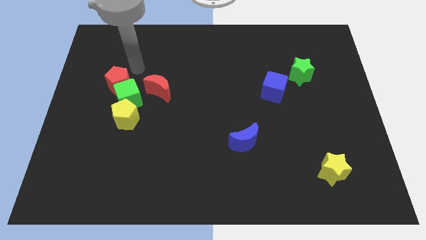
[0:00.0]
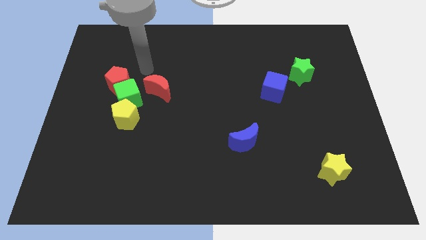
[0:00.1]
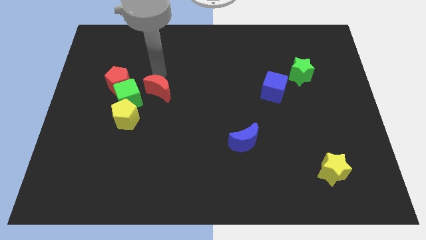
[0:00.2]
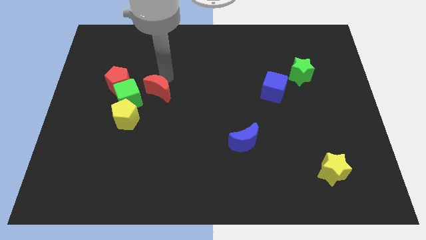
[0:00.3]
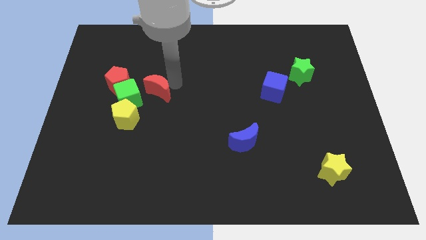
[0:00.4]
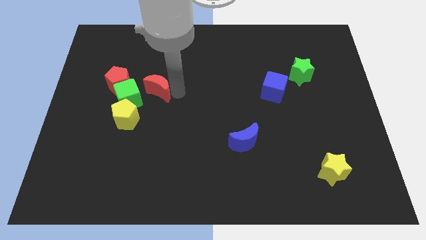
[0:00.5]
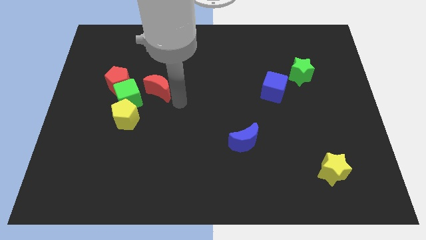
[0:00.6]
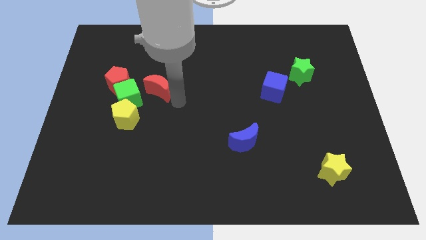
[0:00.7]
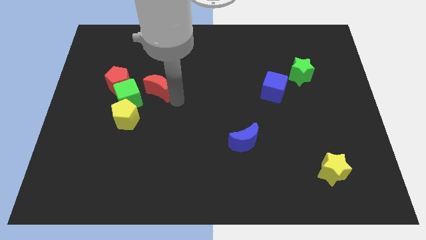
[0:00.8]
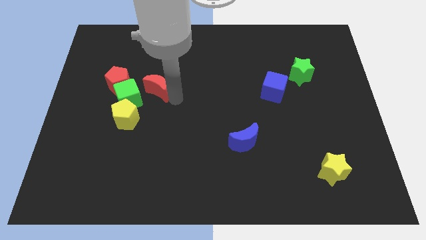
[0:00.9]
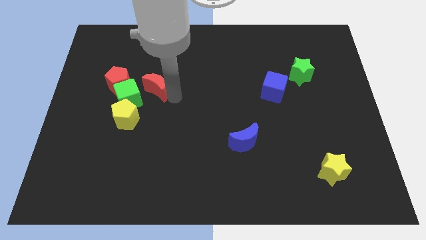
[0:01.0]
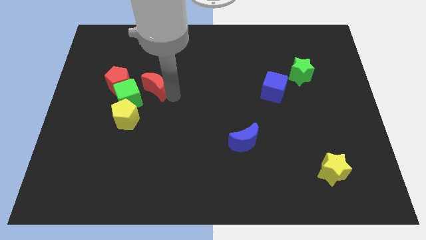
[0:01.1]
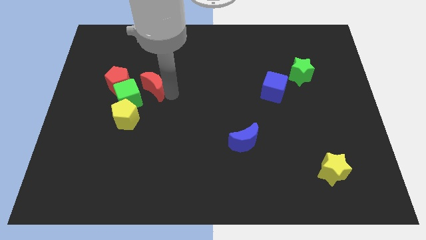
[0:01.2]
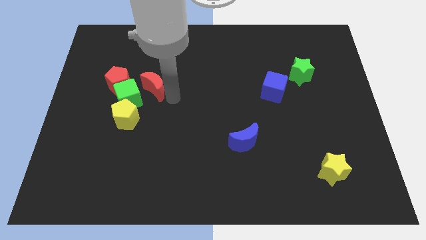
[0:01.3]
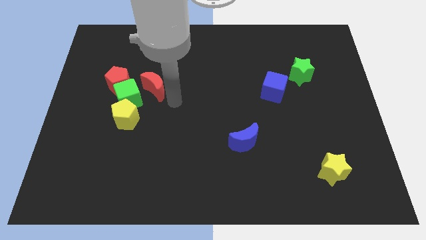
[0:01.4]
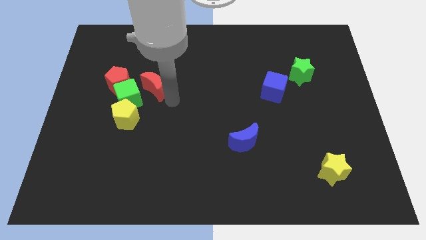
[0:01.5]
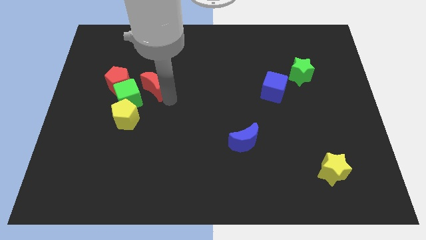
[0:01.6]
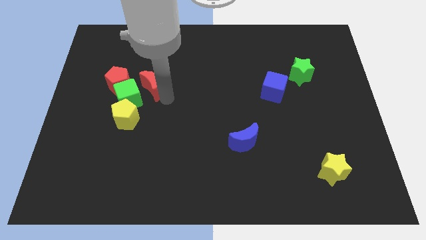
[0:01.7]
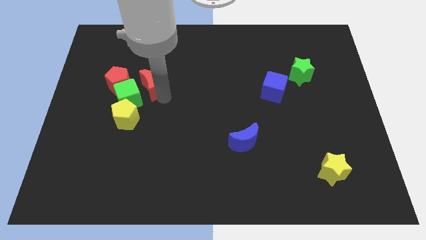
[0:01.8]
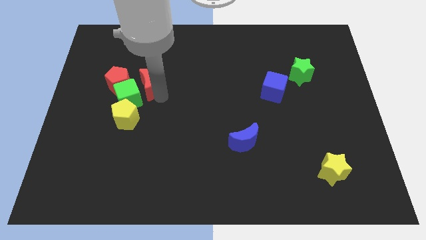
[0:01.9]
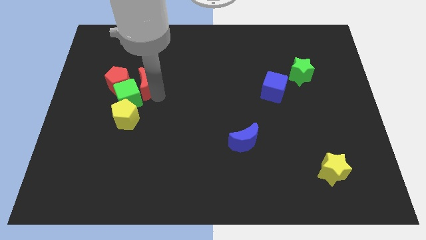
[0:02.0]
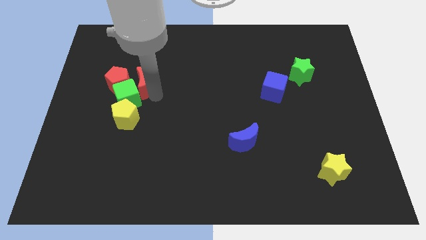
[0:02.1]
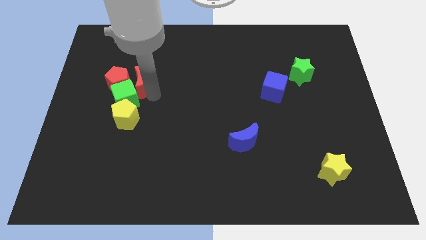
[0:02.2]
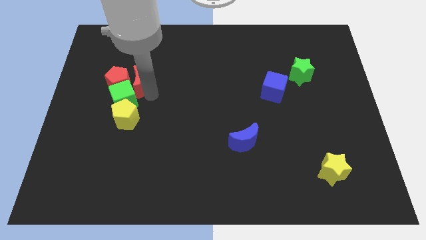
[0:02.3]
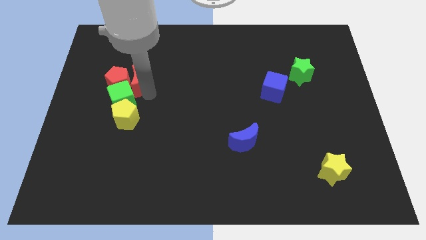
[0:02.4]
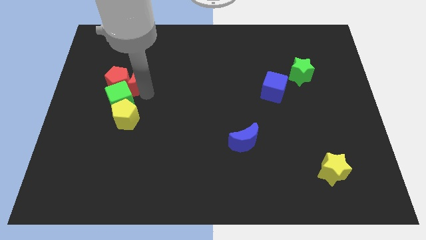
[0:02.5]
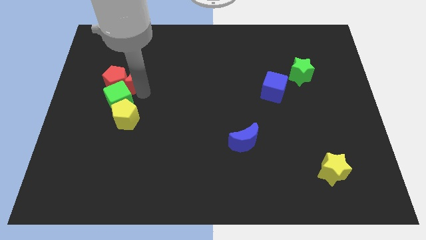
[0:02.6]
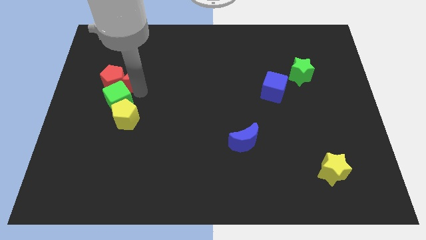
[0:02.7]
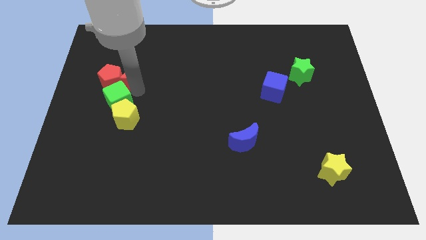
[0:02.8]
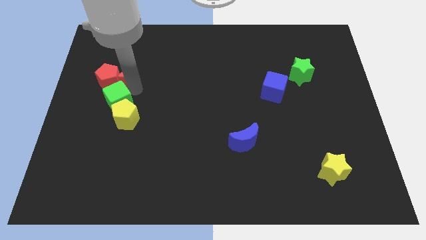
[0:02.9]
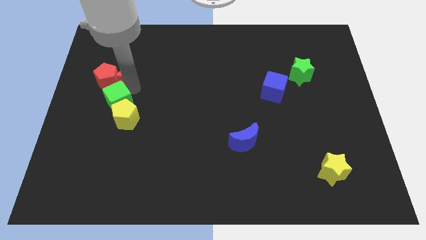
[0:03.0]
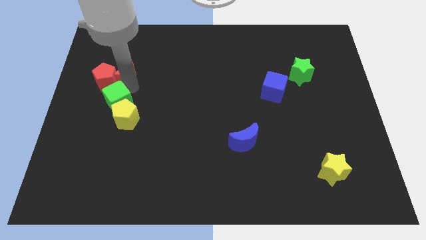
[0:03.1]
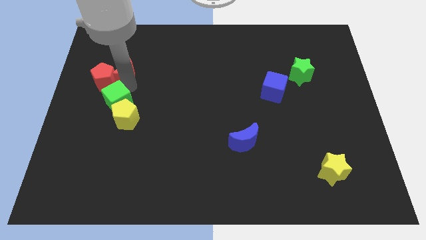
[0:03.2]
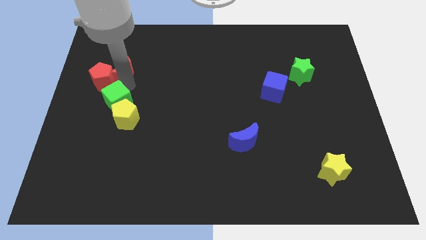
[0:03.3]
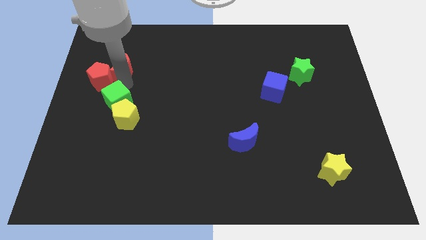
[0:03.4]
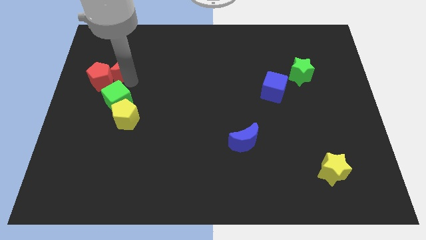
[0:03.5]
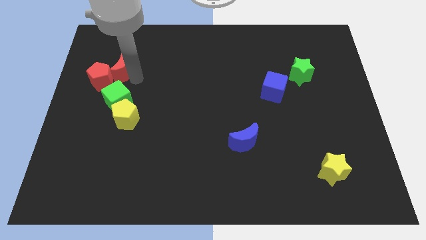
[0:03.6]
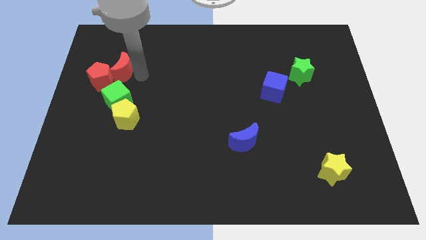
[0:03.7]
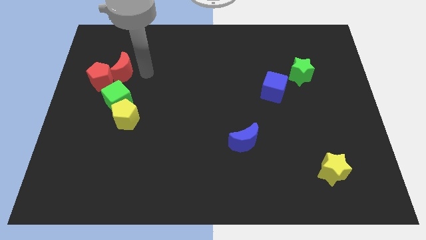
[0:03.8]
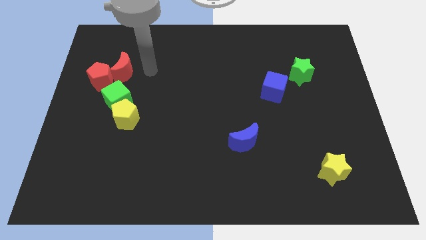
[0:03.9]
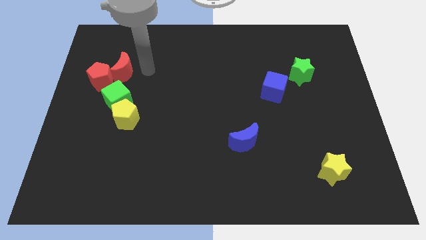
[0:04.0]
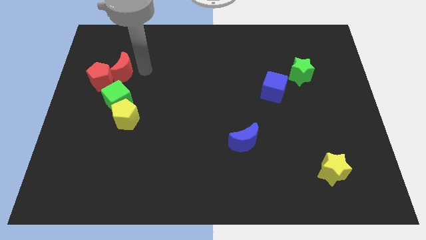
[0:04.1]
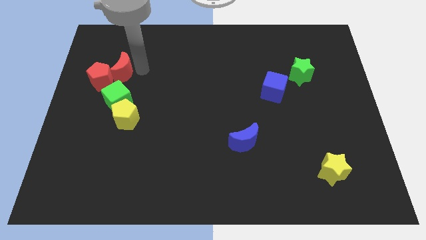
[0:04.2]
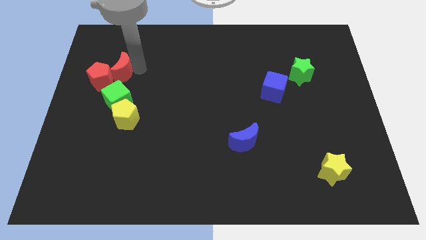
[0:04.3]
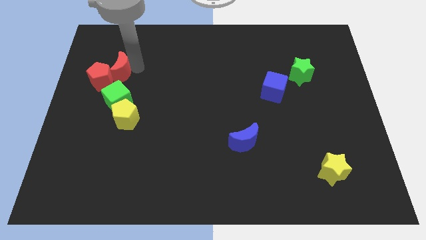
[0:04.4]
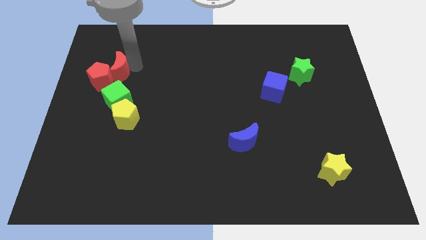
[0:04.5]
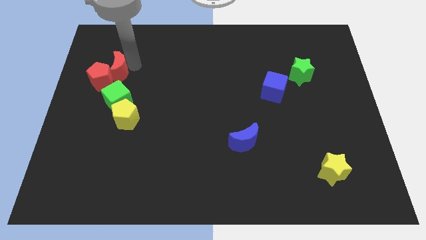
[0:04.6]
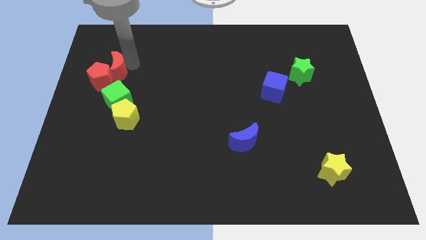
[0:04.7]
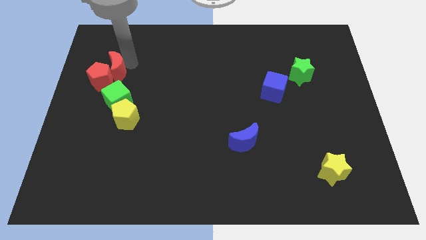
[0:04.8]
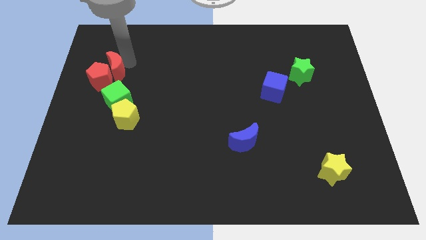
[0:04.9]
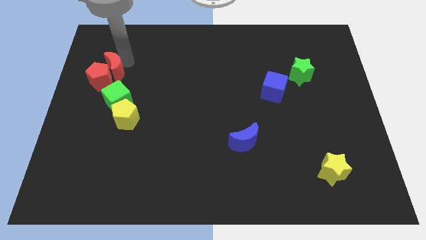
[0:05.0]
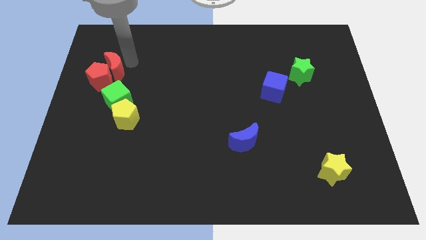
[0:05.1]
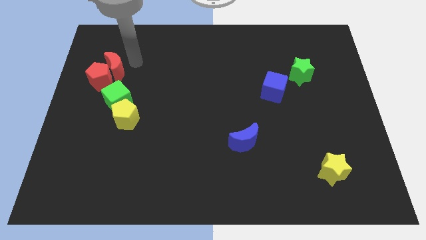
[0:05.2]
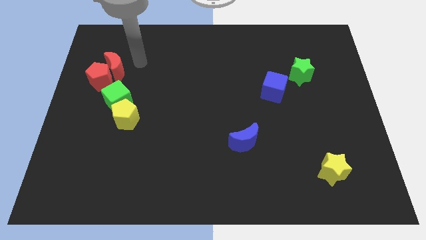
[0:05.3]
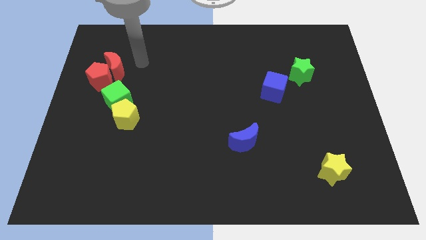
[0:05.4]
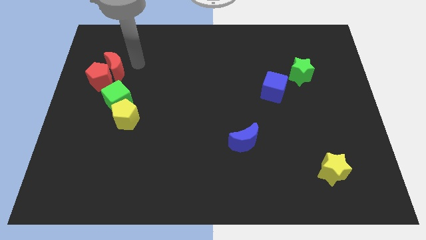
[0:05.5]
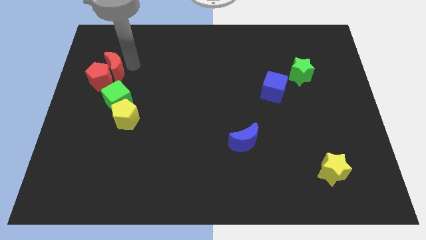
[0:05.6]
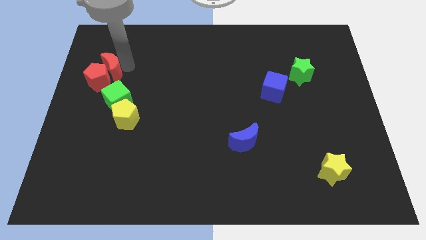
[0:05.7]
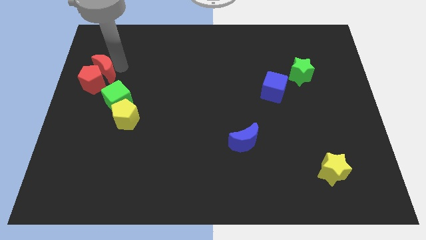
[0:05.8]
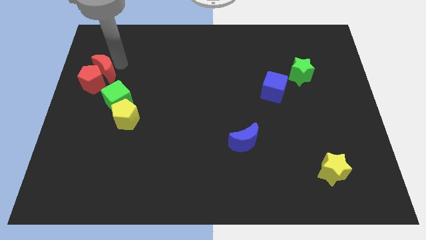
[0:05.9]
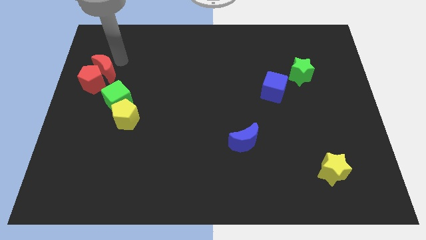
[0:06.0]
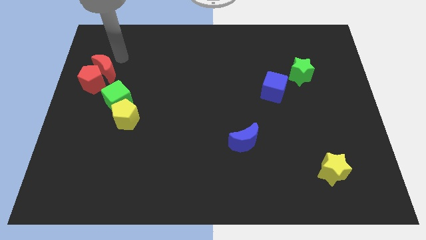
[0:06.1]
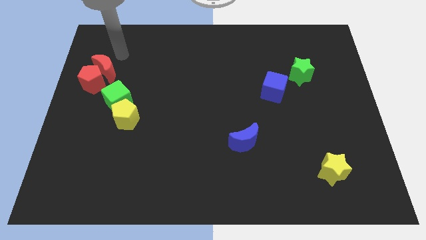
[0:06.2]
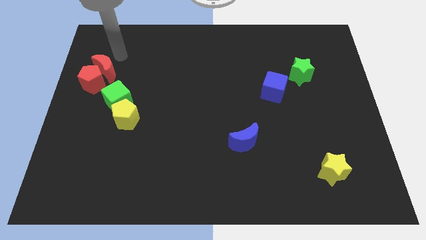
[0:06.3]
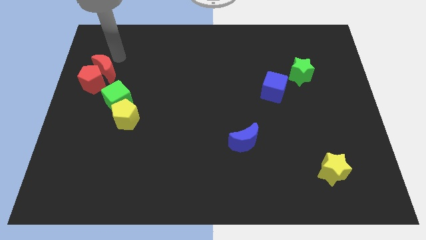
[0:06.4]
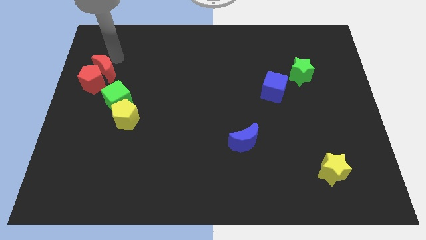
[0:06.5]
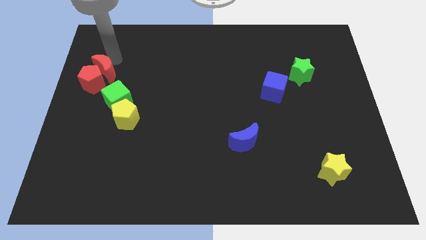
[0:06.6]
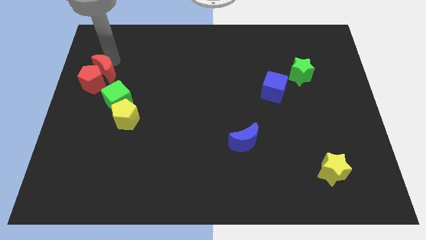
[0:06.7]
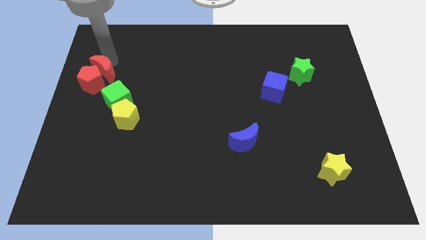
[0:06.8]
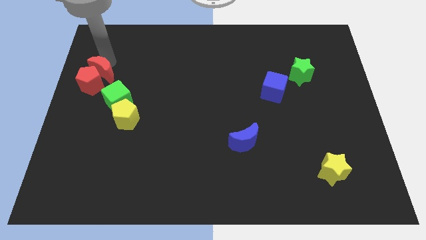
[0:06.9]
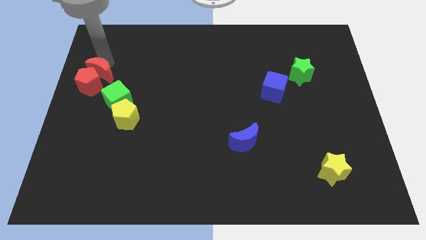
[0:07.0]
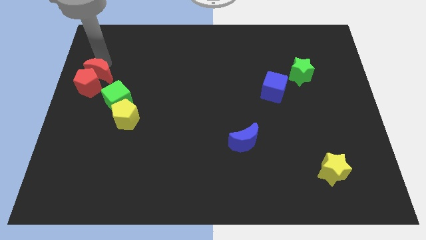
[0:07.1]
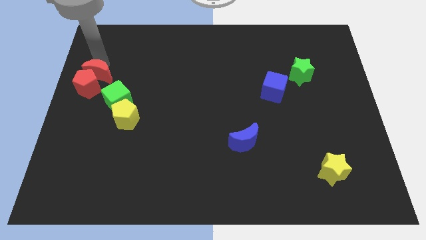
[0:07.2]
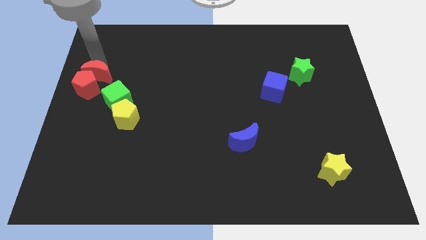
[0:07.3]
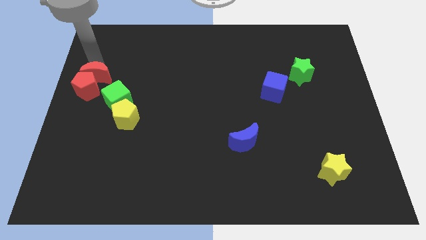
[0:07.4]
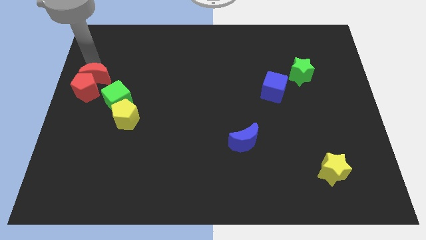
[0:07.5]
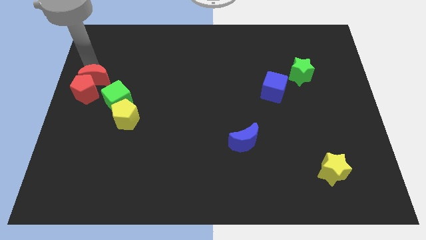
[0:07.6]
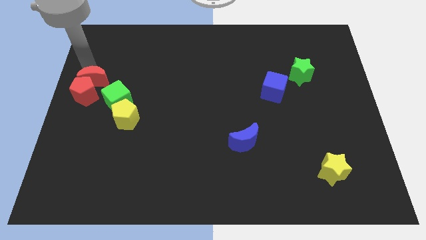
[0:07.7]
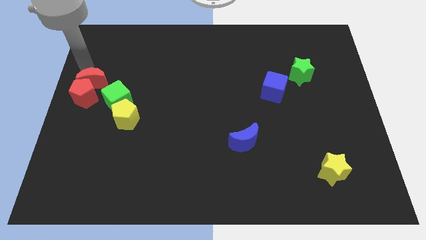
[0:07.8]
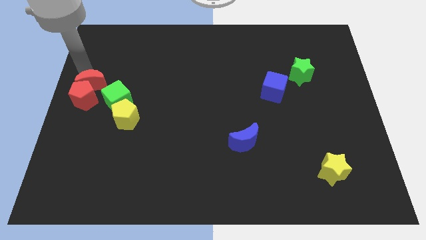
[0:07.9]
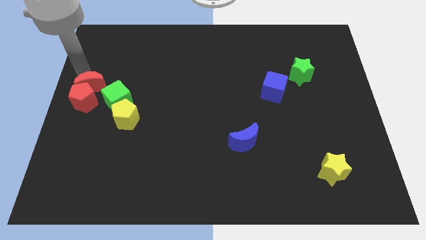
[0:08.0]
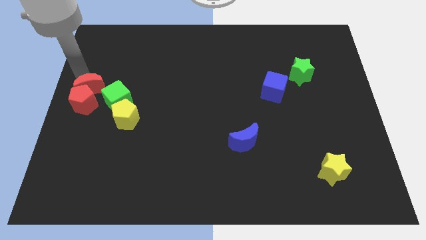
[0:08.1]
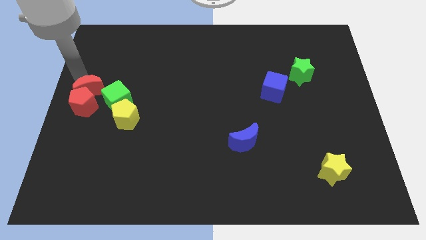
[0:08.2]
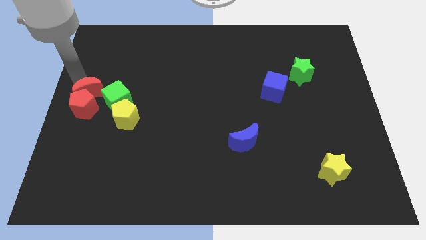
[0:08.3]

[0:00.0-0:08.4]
move the red moon to the top left side of the yellow pentagon
